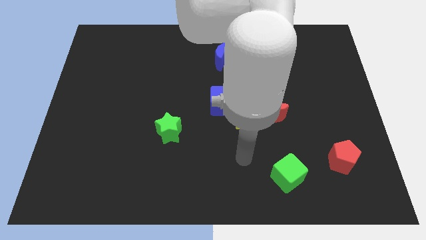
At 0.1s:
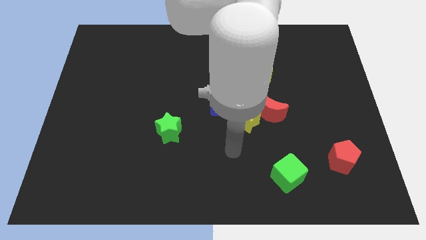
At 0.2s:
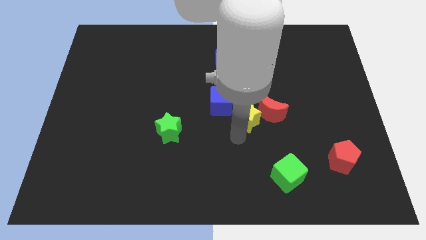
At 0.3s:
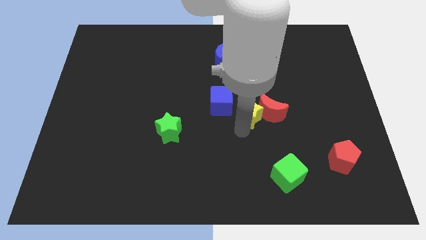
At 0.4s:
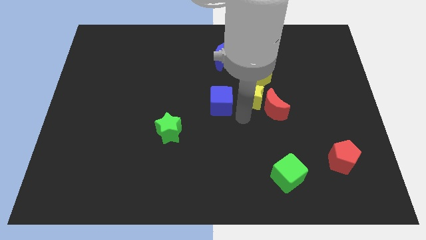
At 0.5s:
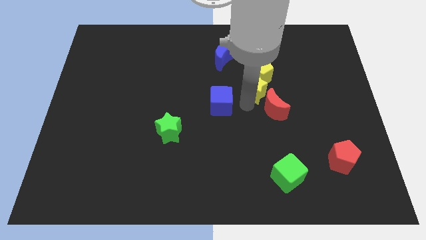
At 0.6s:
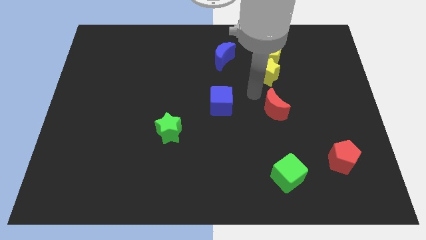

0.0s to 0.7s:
separate the red moon from the yellow star

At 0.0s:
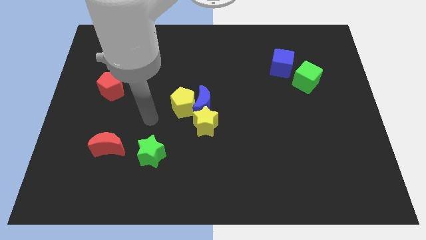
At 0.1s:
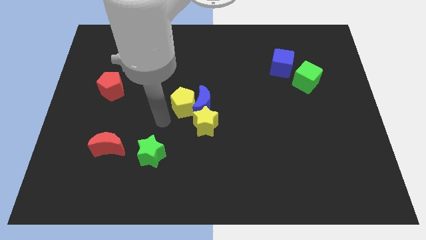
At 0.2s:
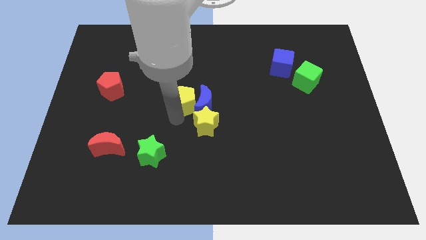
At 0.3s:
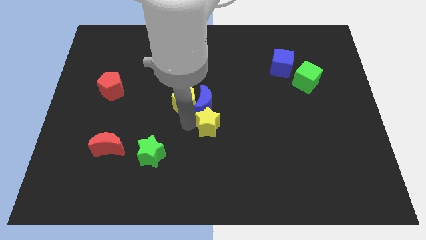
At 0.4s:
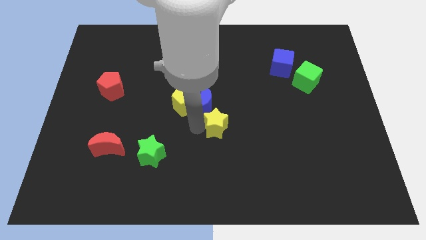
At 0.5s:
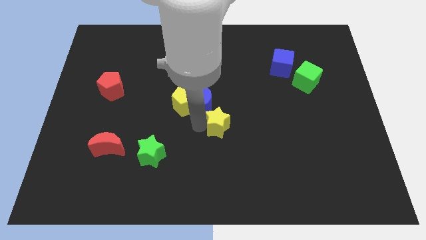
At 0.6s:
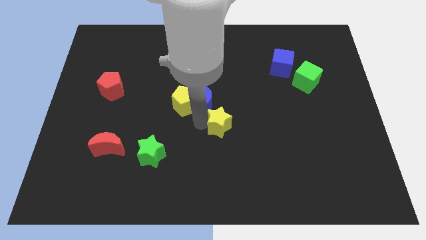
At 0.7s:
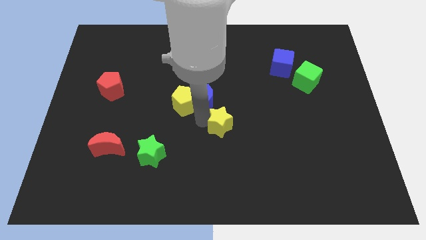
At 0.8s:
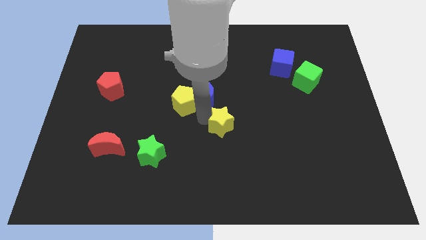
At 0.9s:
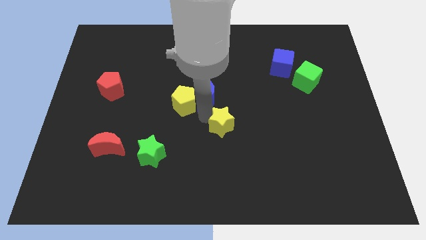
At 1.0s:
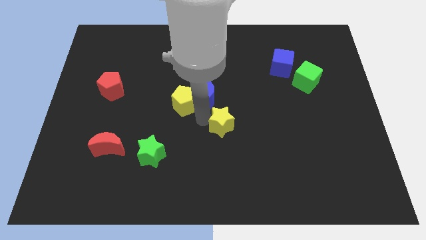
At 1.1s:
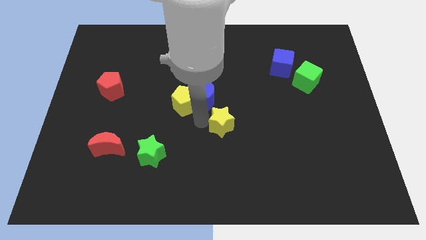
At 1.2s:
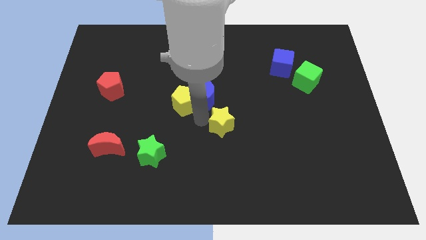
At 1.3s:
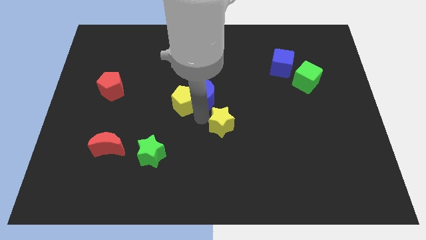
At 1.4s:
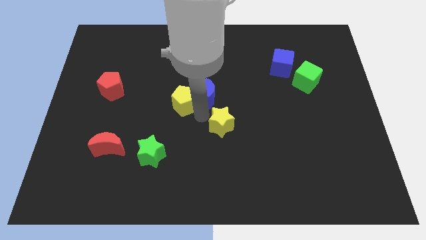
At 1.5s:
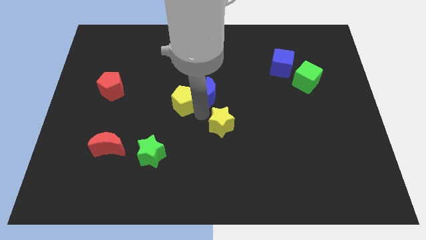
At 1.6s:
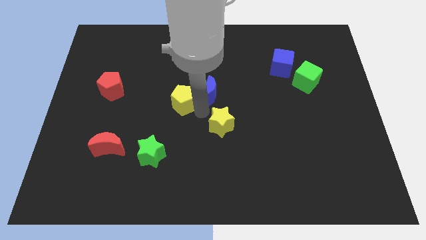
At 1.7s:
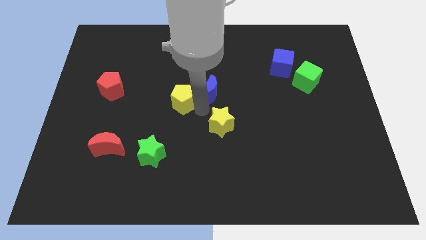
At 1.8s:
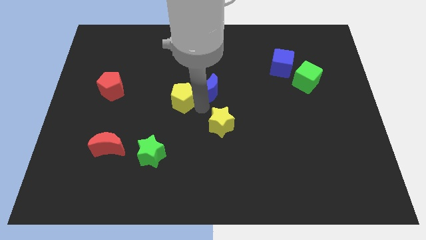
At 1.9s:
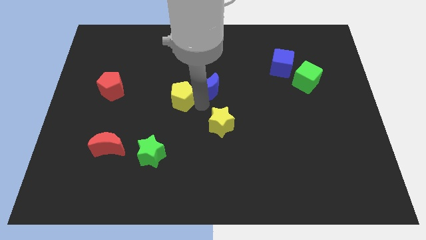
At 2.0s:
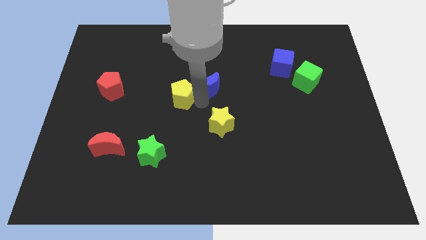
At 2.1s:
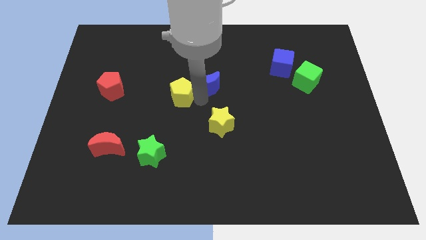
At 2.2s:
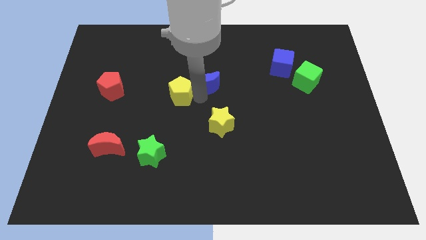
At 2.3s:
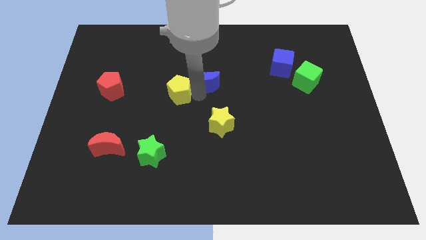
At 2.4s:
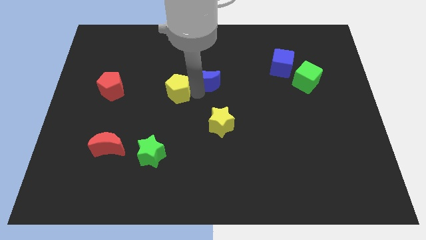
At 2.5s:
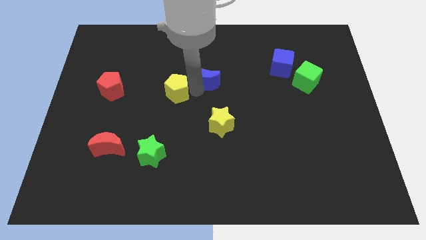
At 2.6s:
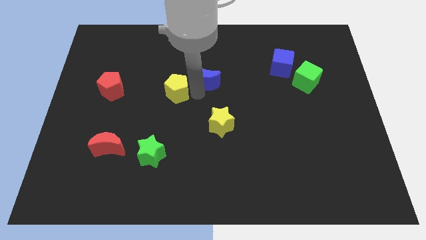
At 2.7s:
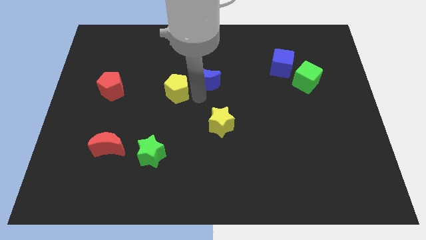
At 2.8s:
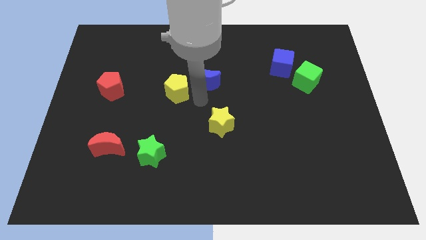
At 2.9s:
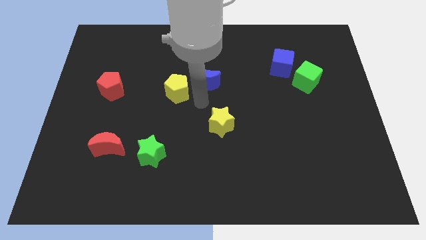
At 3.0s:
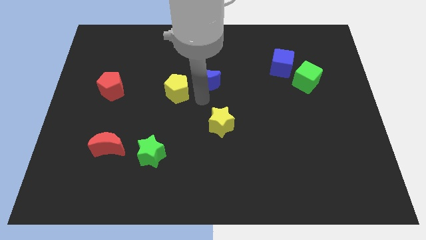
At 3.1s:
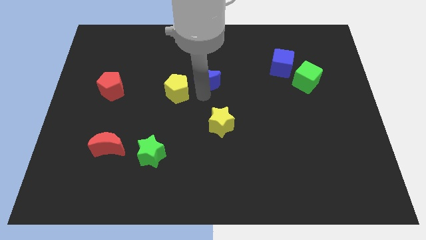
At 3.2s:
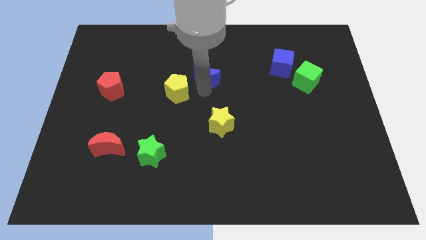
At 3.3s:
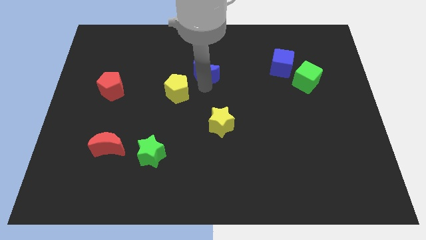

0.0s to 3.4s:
pull the blue moon apart from the yellow pentagon and yellow star

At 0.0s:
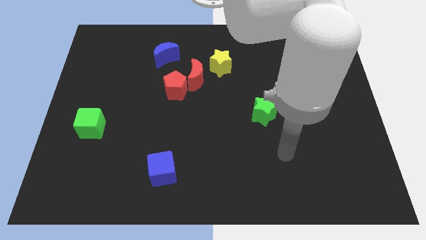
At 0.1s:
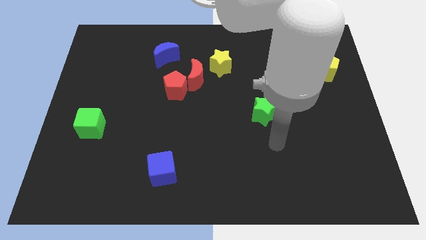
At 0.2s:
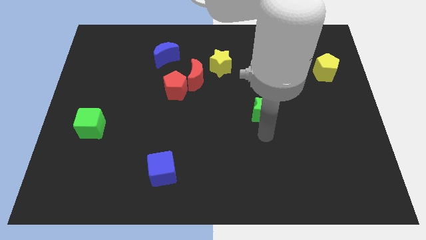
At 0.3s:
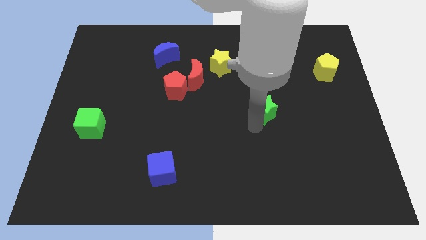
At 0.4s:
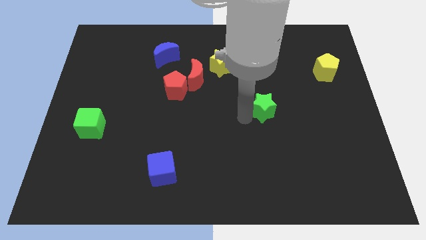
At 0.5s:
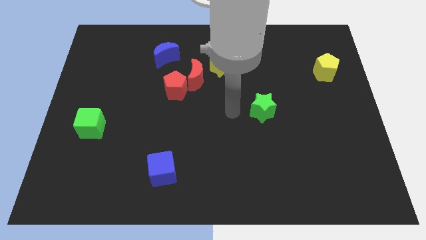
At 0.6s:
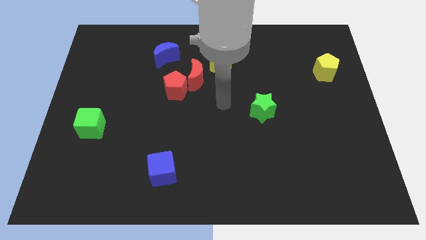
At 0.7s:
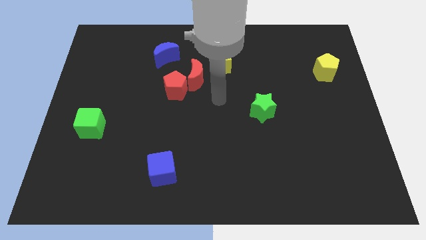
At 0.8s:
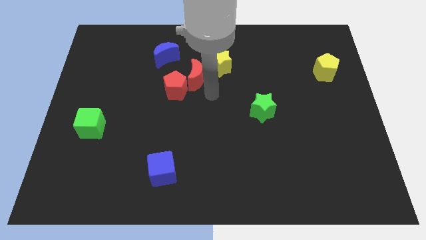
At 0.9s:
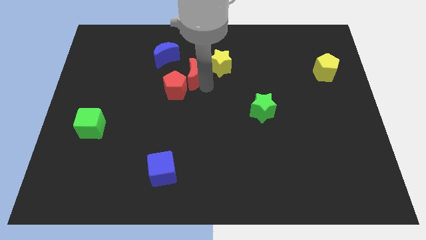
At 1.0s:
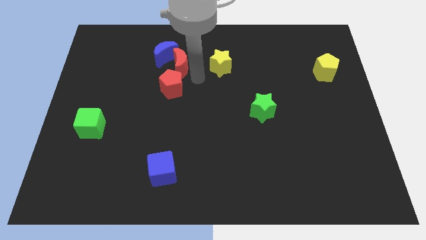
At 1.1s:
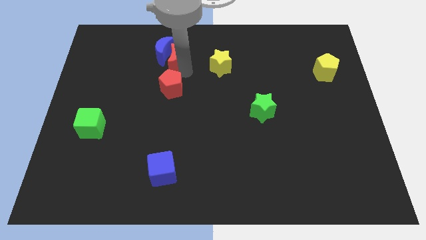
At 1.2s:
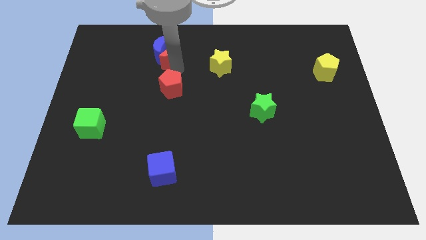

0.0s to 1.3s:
separate the red pentagon from the red moon

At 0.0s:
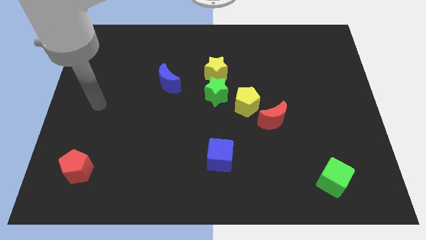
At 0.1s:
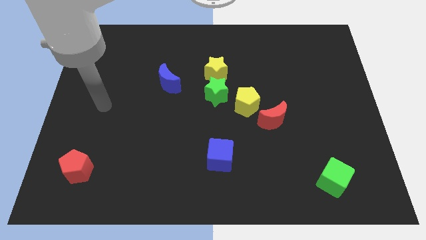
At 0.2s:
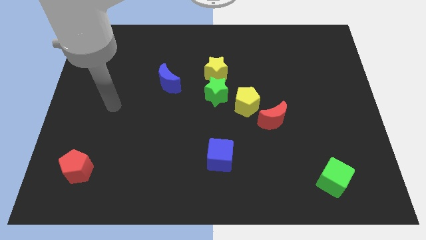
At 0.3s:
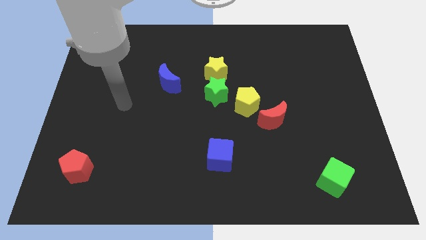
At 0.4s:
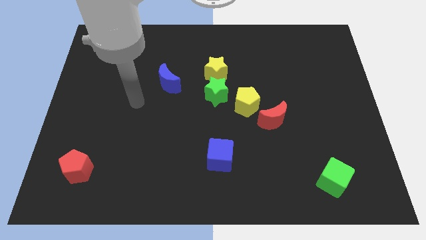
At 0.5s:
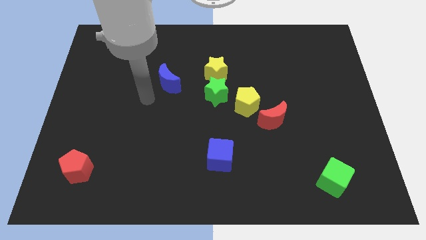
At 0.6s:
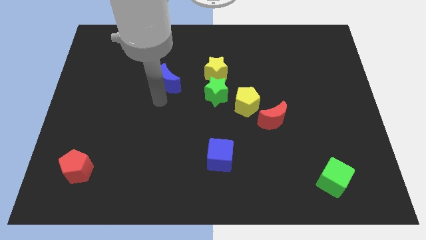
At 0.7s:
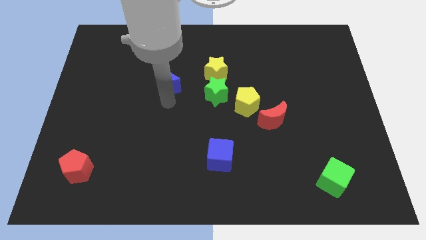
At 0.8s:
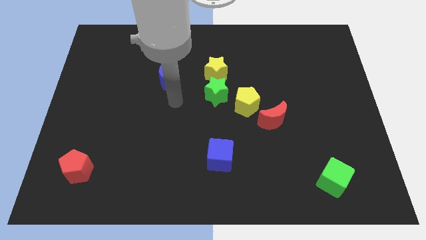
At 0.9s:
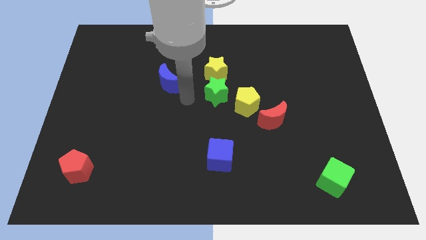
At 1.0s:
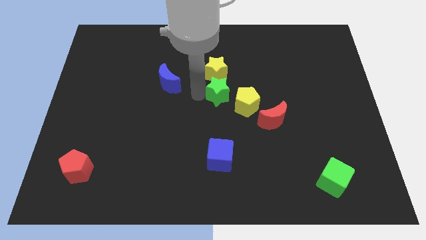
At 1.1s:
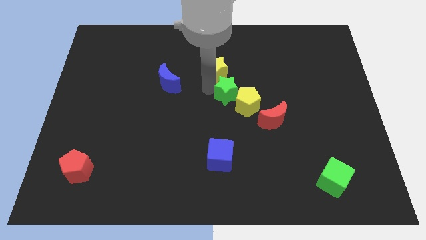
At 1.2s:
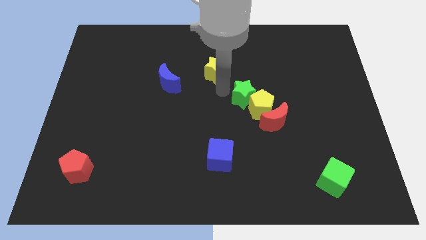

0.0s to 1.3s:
move the yellow star away from the green star

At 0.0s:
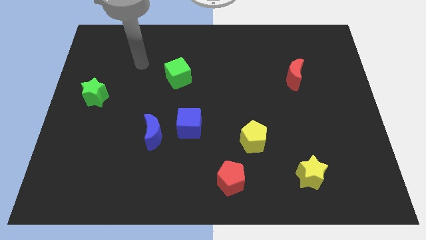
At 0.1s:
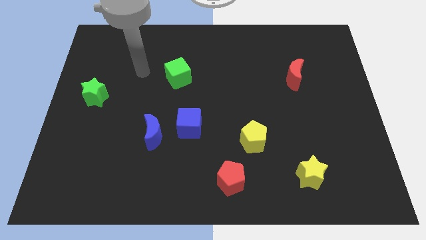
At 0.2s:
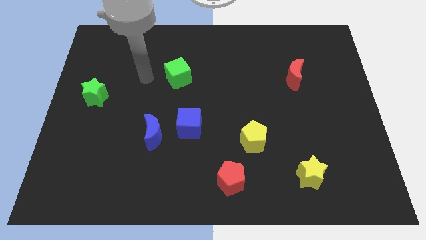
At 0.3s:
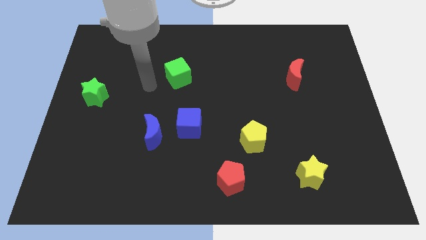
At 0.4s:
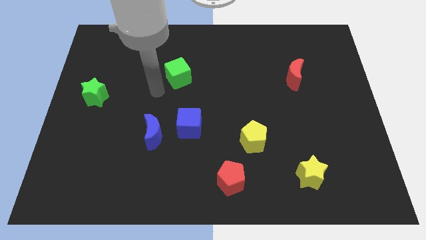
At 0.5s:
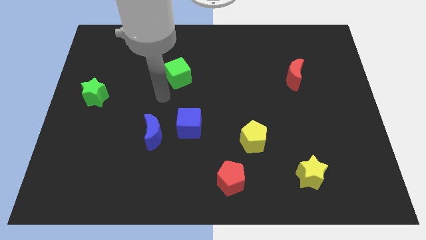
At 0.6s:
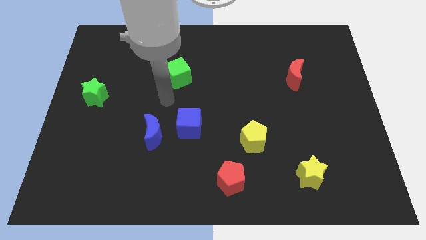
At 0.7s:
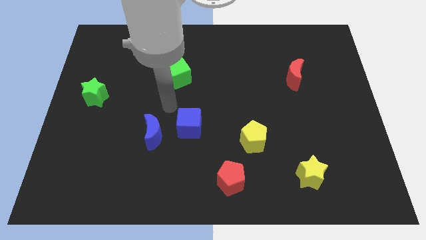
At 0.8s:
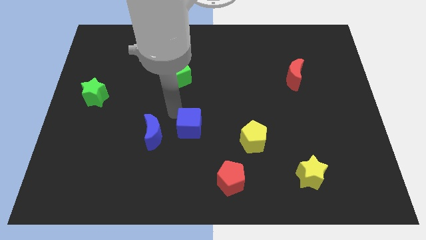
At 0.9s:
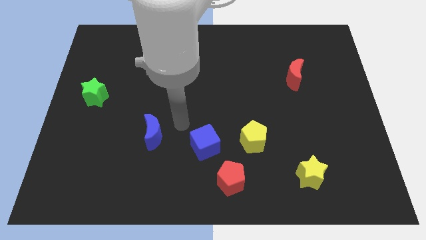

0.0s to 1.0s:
pull the blue moon apart from the blue cube

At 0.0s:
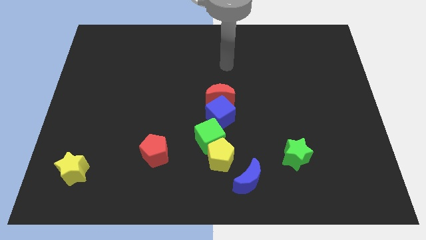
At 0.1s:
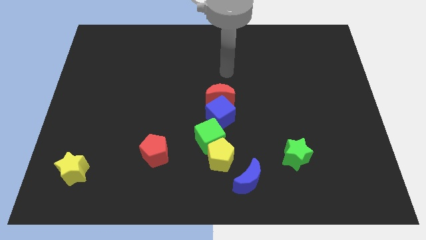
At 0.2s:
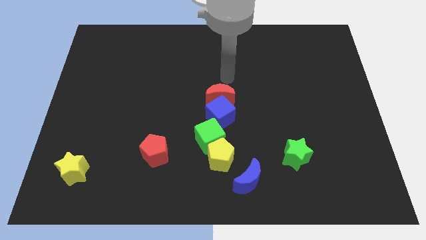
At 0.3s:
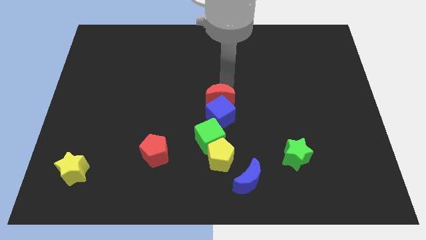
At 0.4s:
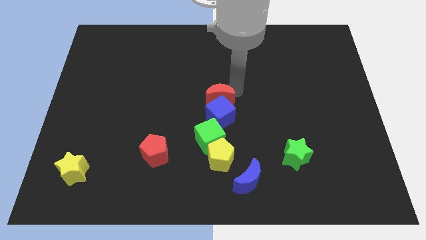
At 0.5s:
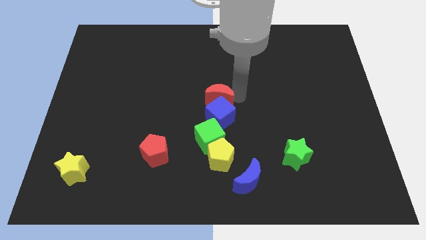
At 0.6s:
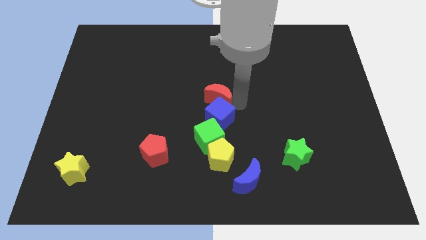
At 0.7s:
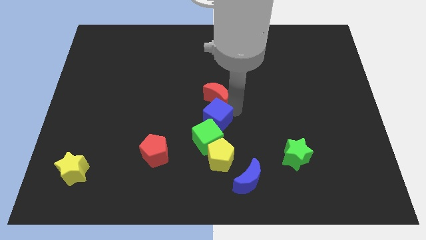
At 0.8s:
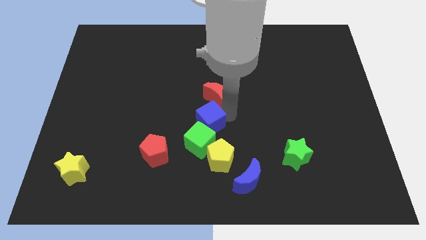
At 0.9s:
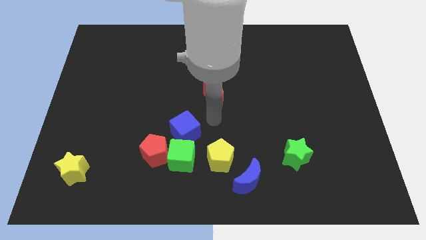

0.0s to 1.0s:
separate the red moon from the blue cube

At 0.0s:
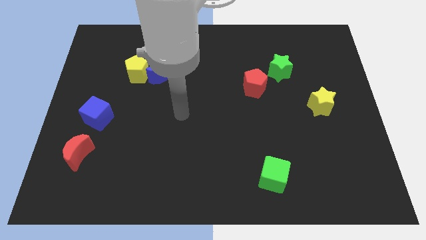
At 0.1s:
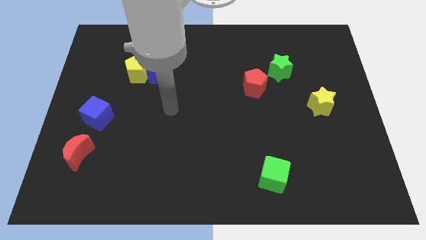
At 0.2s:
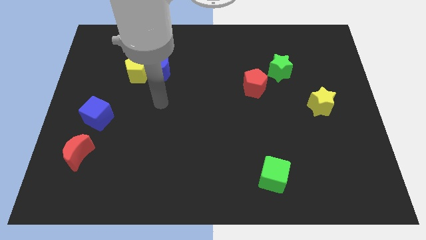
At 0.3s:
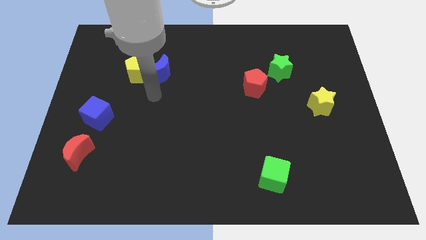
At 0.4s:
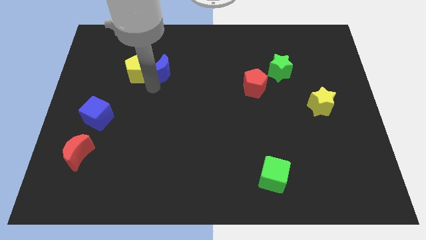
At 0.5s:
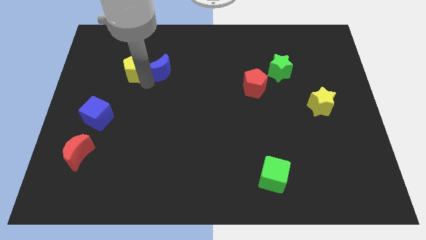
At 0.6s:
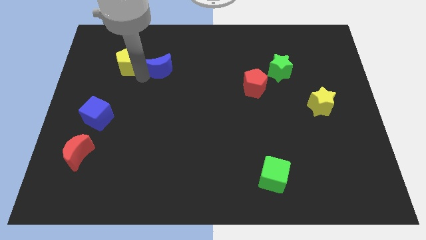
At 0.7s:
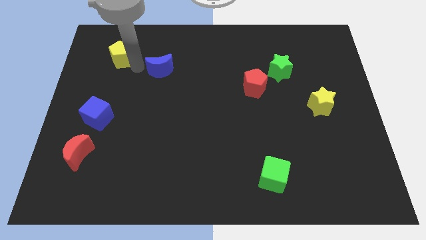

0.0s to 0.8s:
separate the blue moon from the yellow pentagon

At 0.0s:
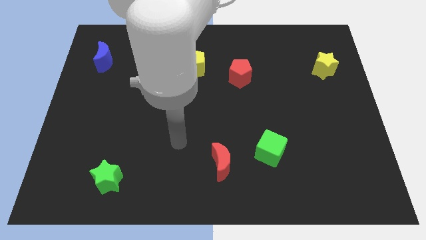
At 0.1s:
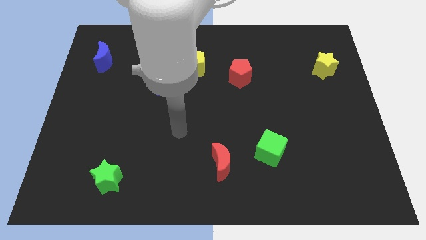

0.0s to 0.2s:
pull the blue cube apart from the yellow pentagon
